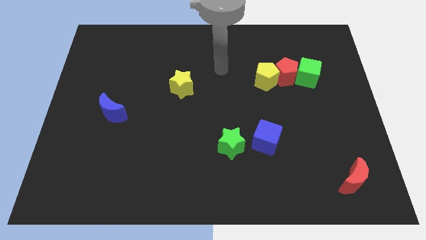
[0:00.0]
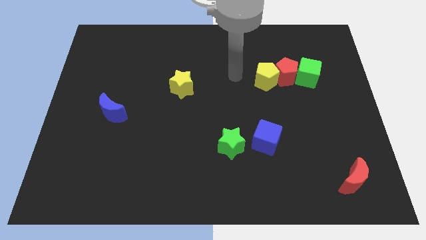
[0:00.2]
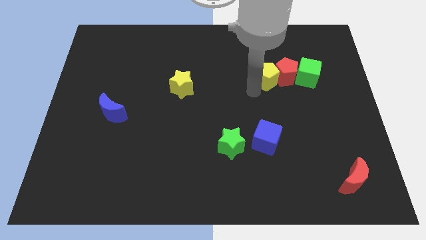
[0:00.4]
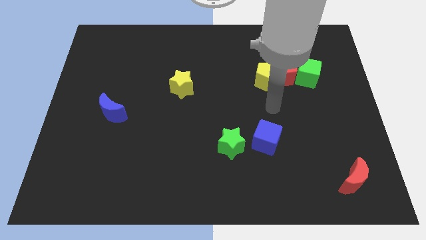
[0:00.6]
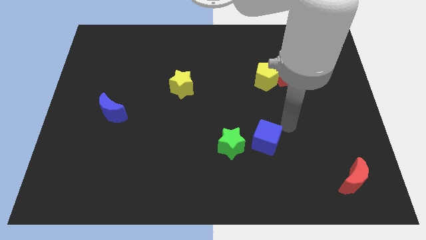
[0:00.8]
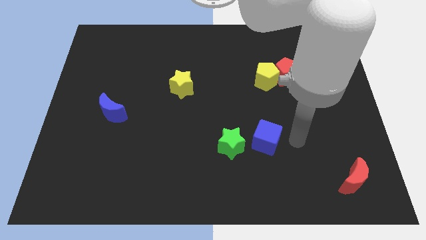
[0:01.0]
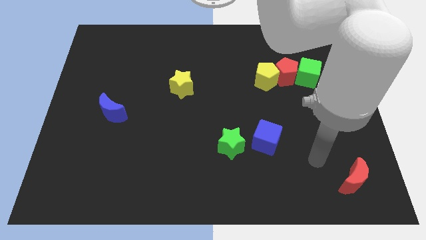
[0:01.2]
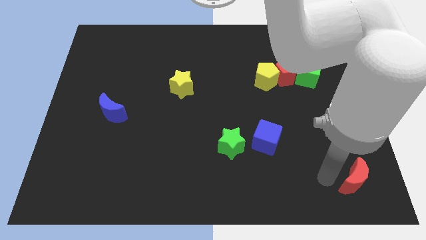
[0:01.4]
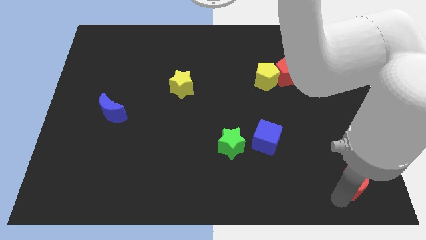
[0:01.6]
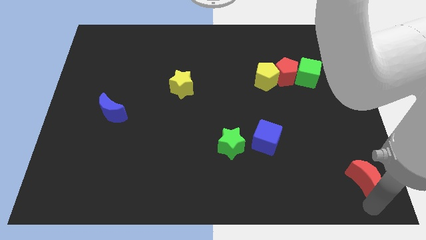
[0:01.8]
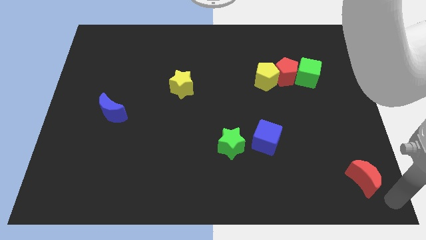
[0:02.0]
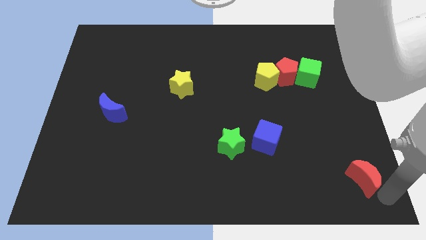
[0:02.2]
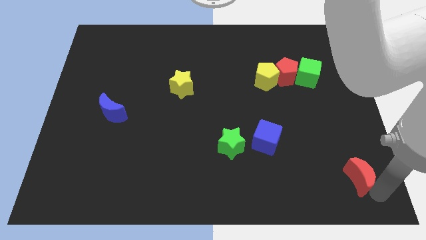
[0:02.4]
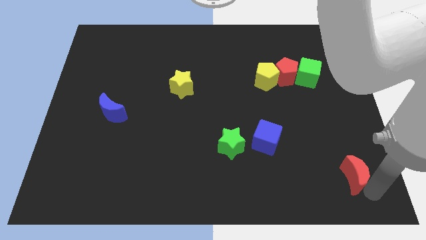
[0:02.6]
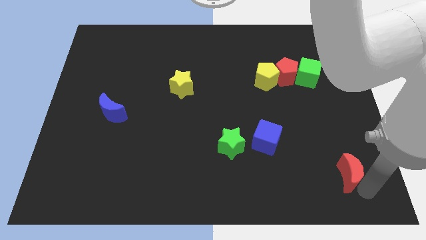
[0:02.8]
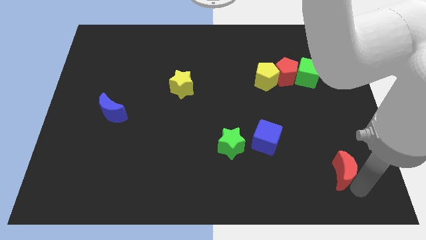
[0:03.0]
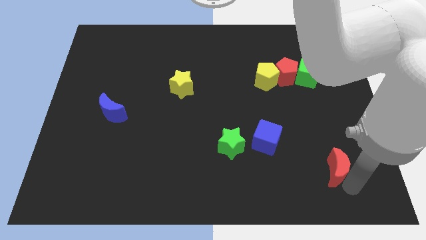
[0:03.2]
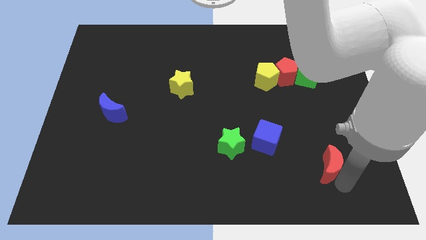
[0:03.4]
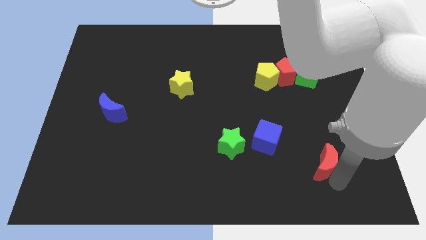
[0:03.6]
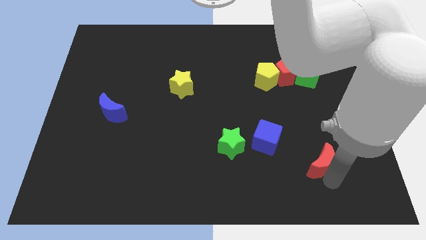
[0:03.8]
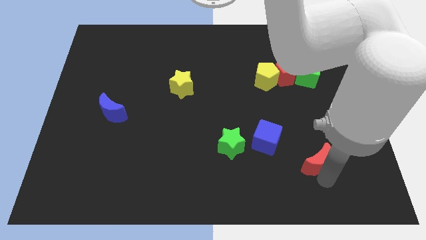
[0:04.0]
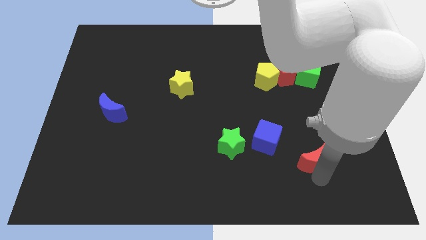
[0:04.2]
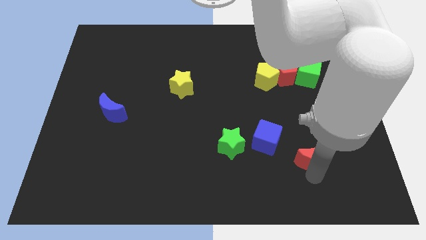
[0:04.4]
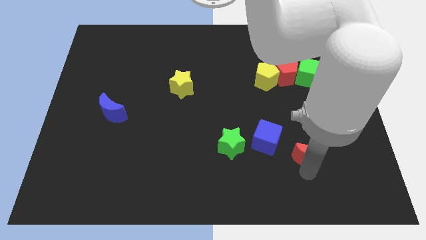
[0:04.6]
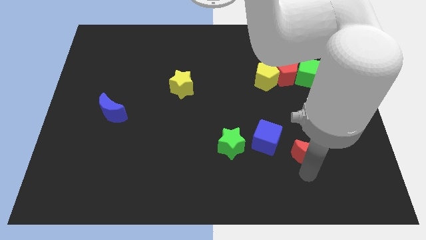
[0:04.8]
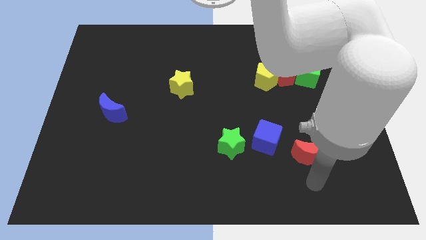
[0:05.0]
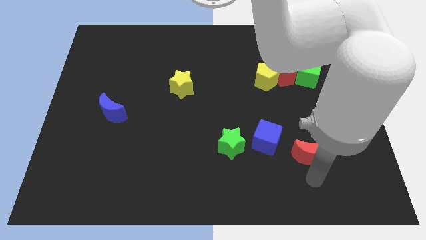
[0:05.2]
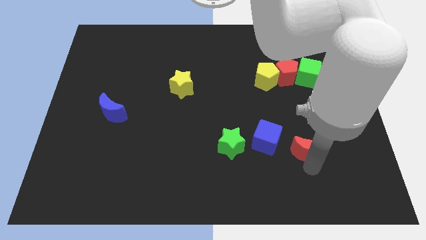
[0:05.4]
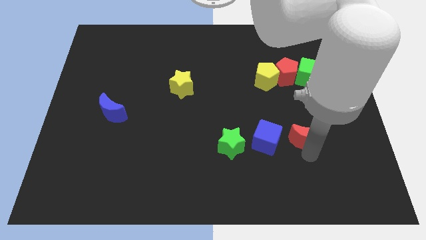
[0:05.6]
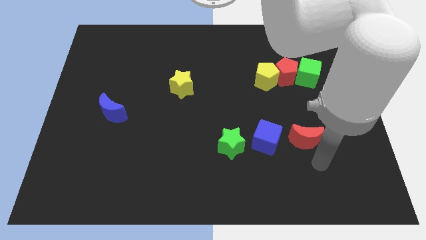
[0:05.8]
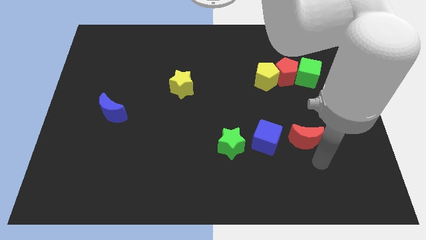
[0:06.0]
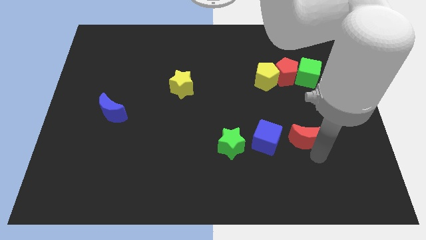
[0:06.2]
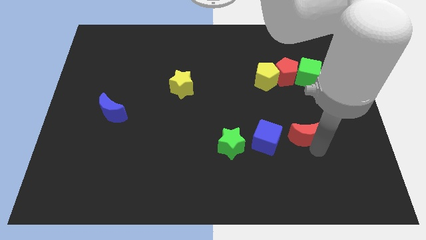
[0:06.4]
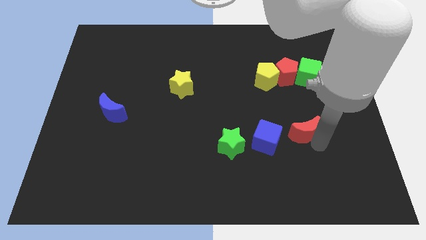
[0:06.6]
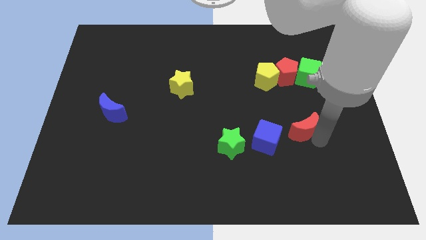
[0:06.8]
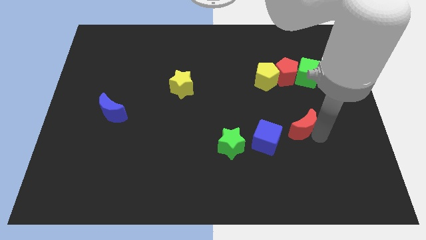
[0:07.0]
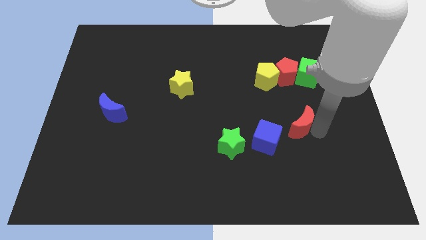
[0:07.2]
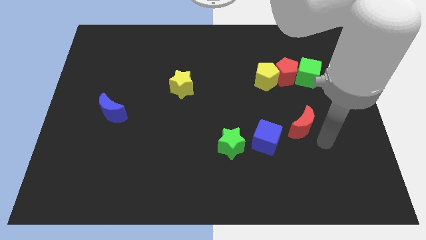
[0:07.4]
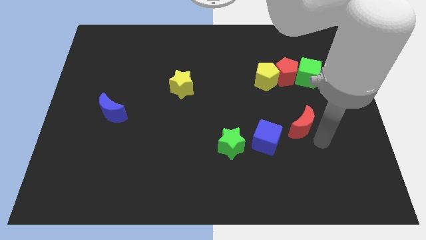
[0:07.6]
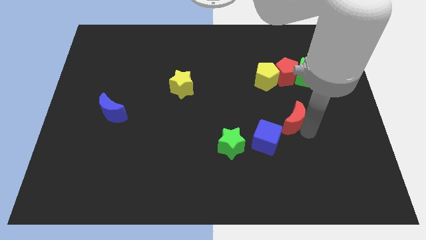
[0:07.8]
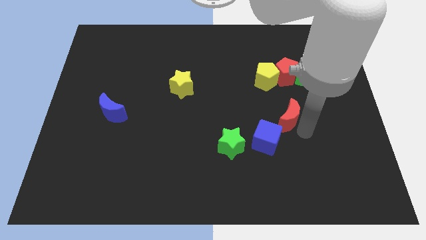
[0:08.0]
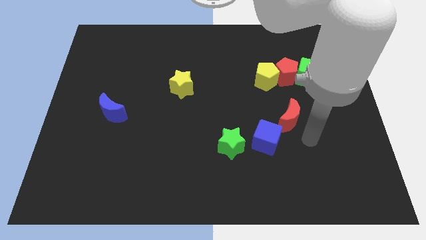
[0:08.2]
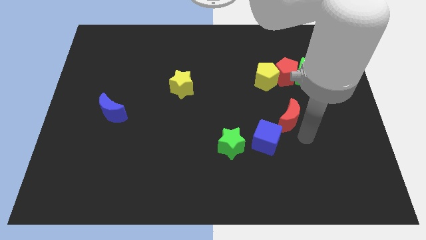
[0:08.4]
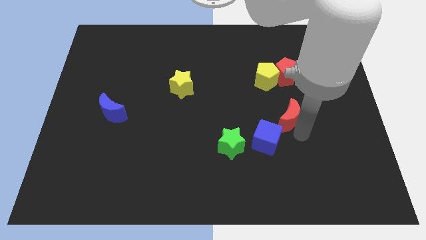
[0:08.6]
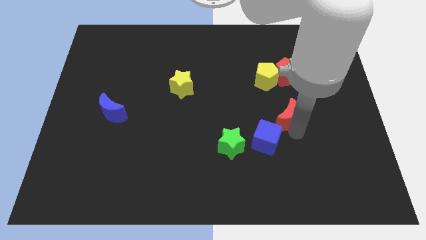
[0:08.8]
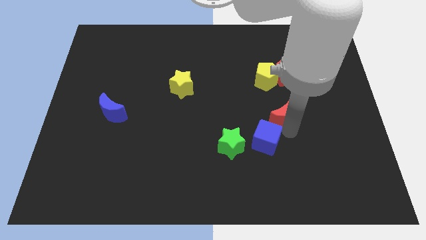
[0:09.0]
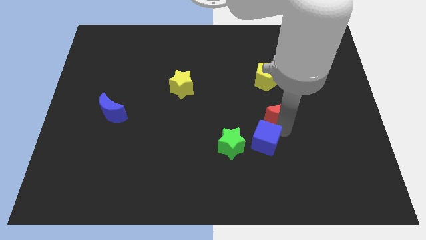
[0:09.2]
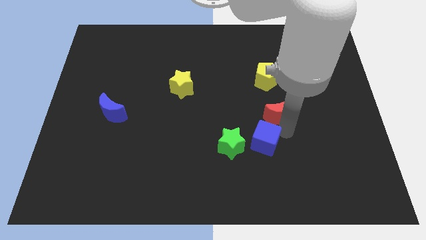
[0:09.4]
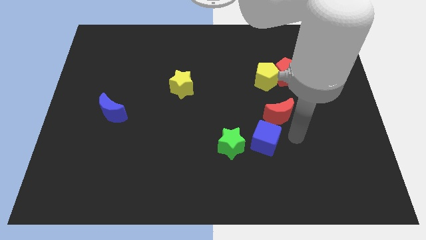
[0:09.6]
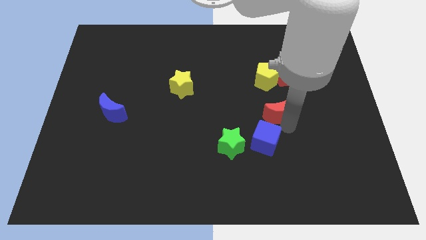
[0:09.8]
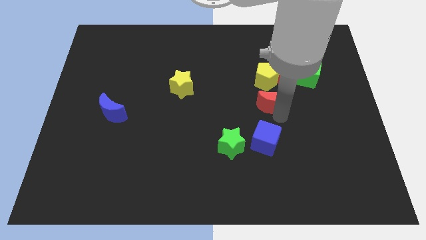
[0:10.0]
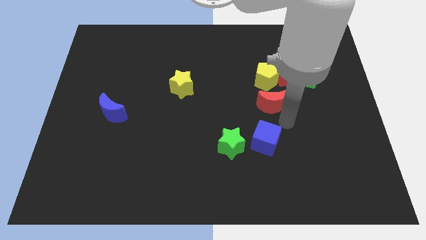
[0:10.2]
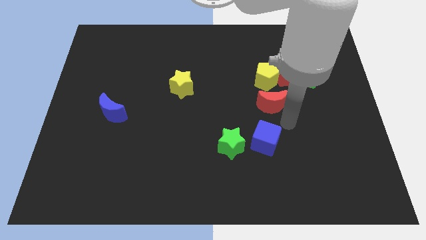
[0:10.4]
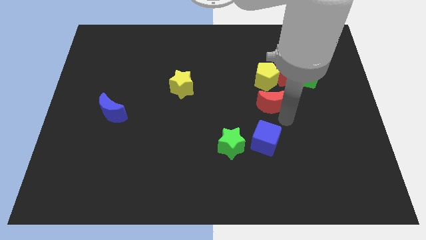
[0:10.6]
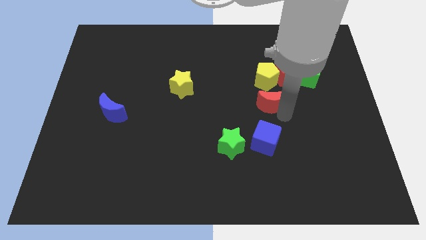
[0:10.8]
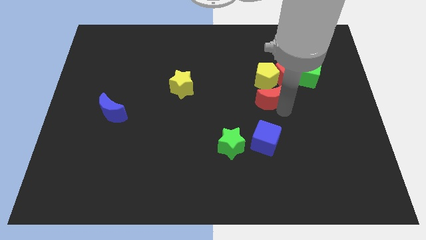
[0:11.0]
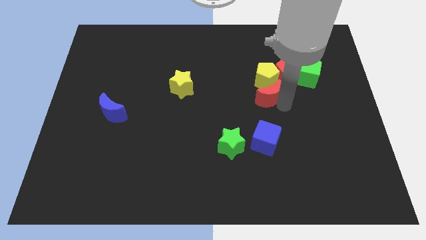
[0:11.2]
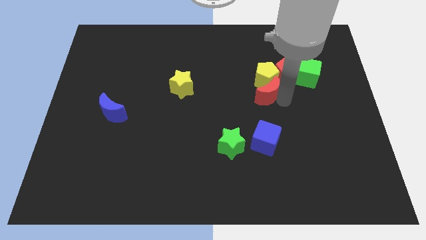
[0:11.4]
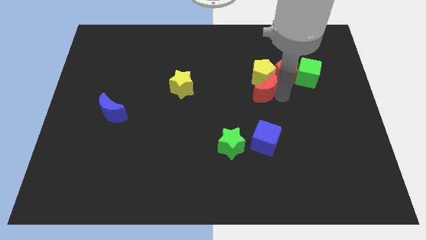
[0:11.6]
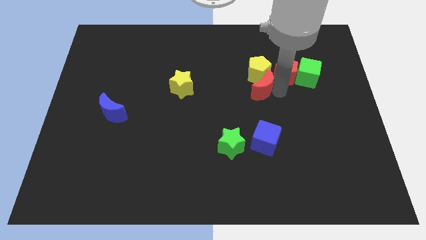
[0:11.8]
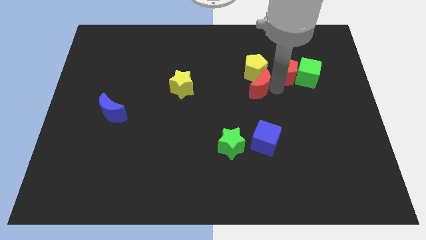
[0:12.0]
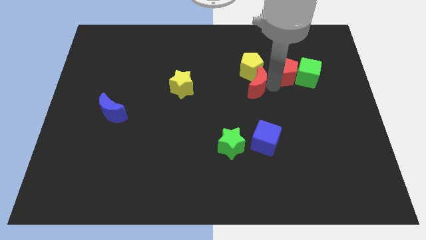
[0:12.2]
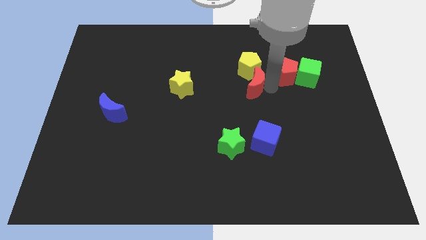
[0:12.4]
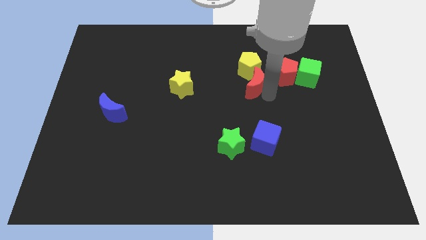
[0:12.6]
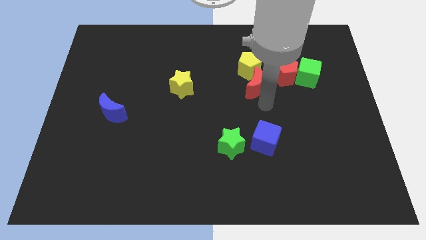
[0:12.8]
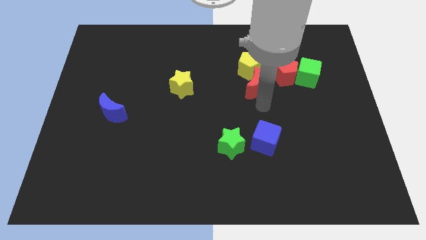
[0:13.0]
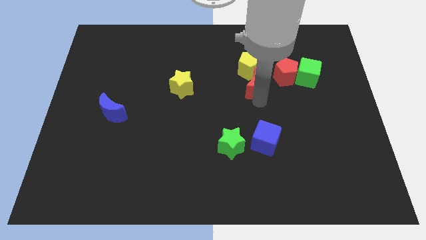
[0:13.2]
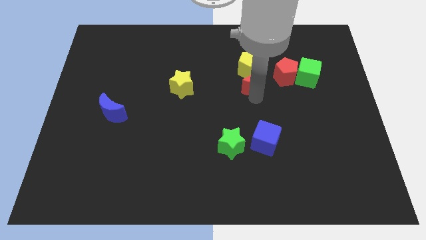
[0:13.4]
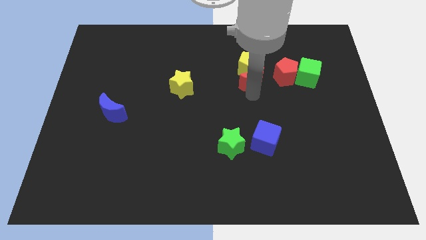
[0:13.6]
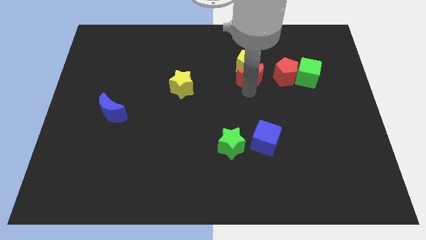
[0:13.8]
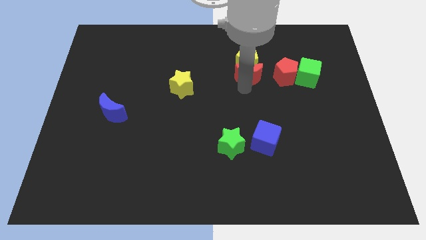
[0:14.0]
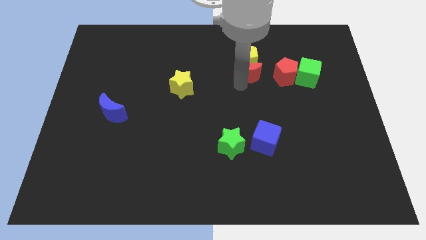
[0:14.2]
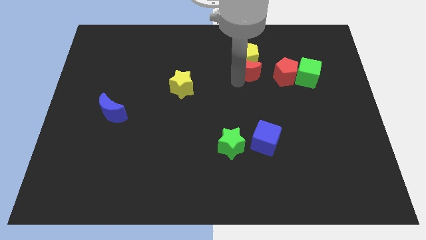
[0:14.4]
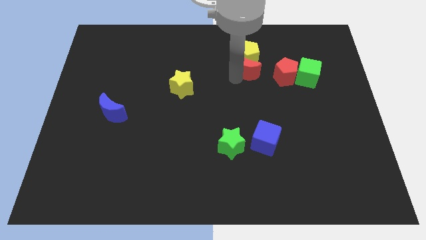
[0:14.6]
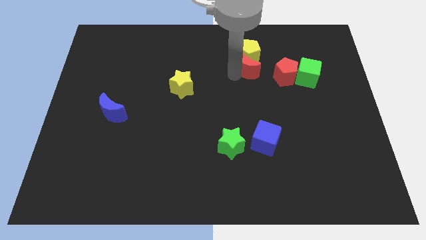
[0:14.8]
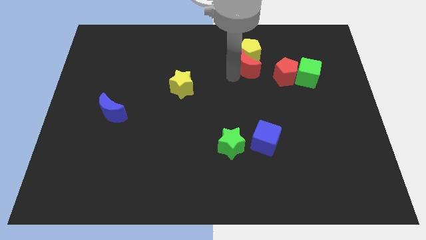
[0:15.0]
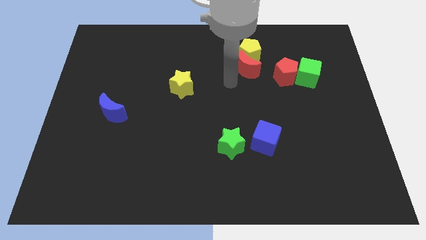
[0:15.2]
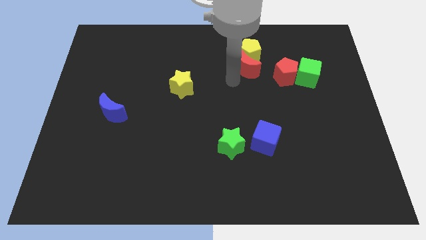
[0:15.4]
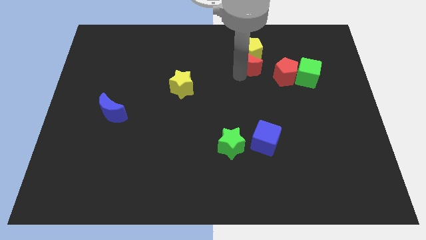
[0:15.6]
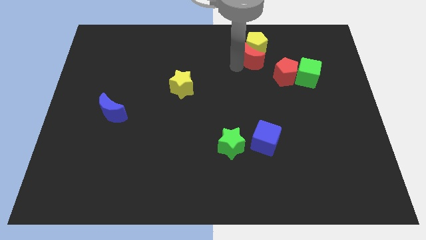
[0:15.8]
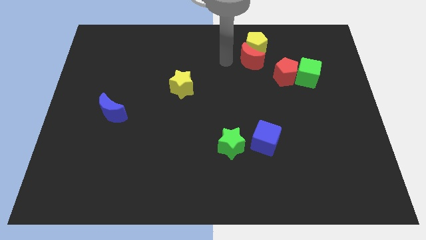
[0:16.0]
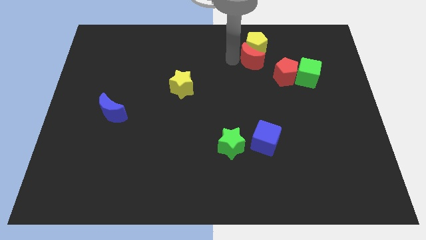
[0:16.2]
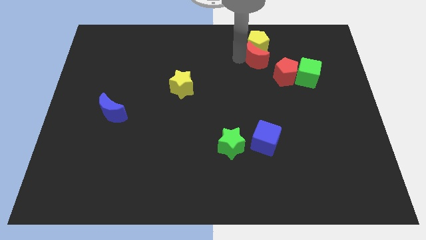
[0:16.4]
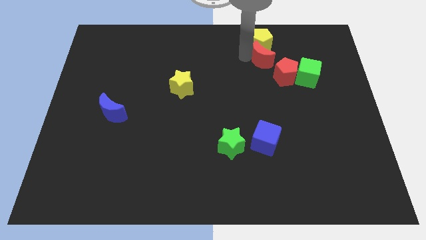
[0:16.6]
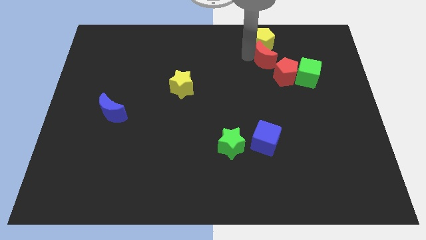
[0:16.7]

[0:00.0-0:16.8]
move the red moon to the top left of the green cube
